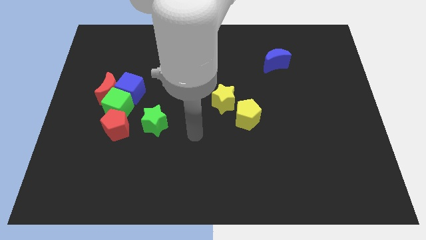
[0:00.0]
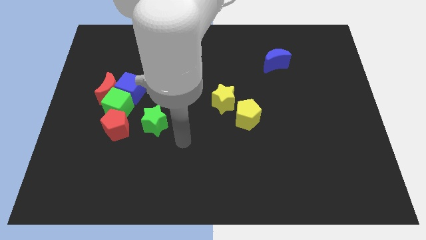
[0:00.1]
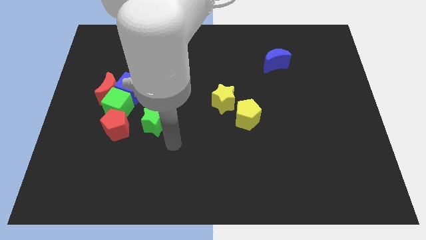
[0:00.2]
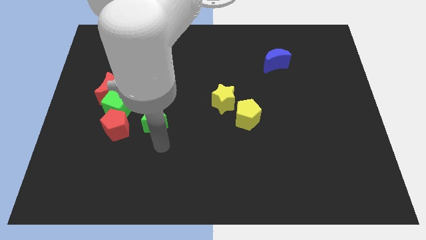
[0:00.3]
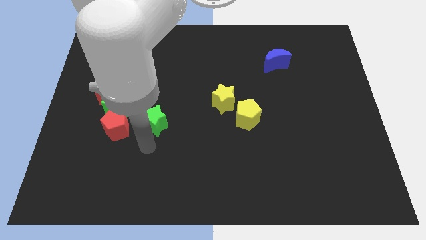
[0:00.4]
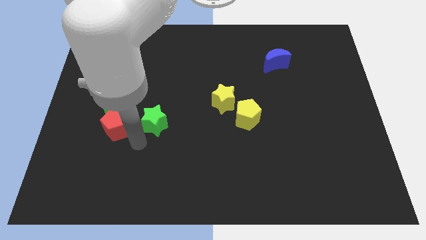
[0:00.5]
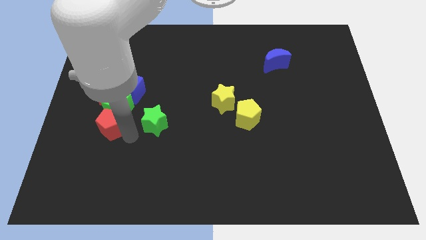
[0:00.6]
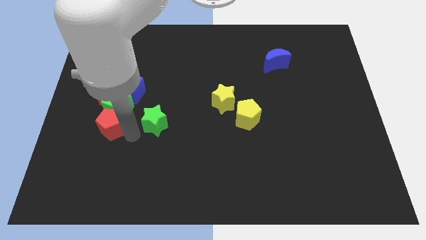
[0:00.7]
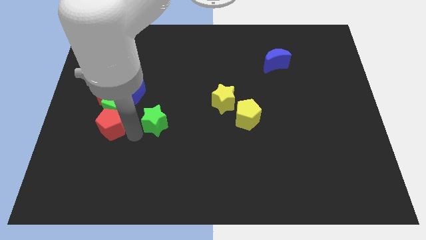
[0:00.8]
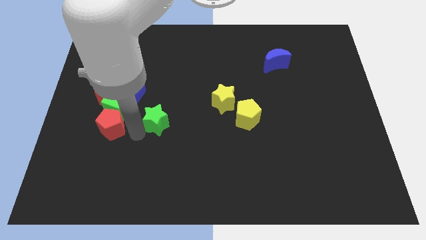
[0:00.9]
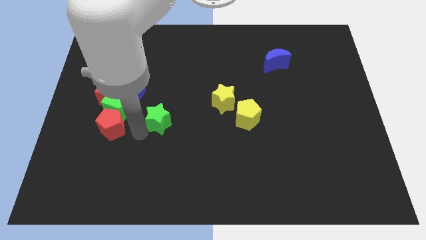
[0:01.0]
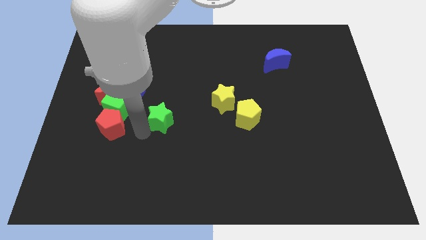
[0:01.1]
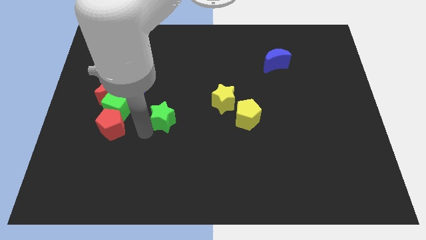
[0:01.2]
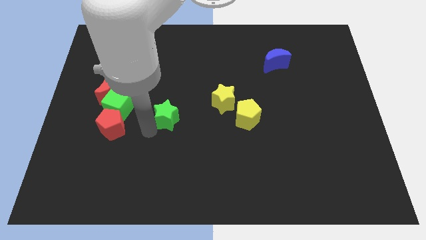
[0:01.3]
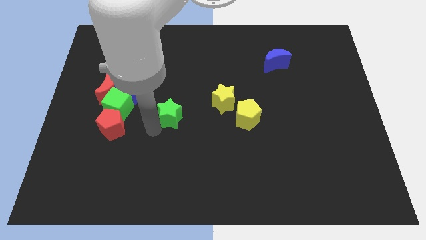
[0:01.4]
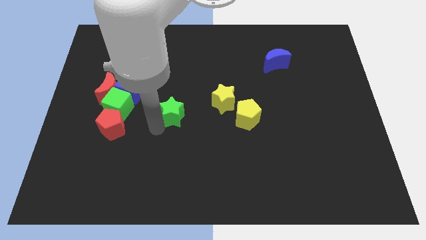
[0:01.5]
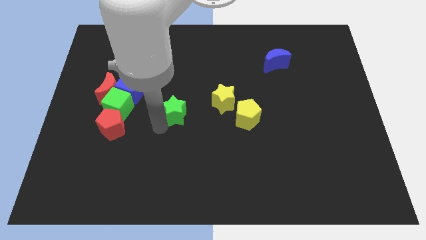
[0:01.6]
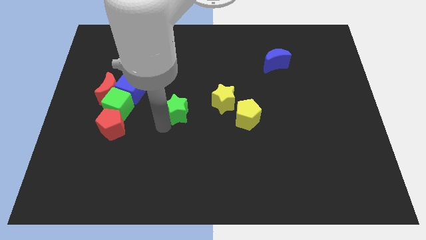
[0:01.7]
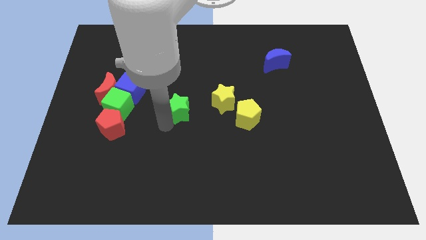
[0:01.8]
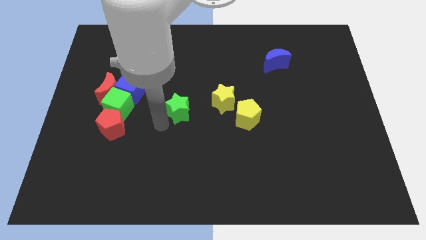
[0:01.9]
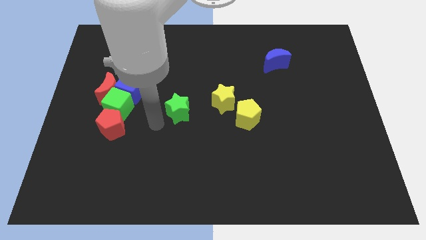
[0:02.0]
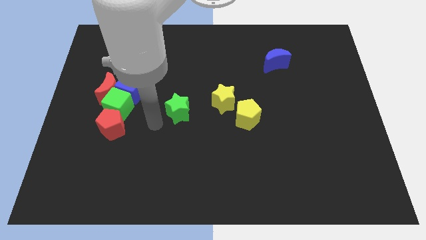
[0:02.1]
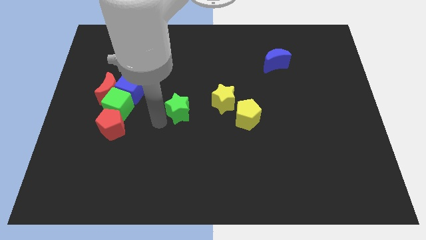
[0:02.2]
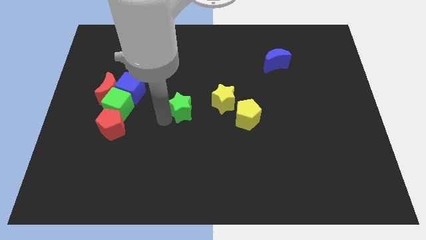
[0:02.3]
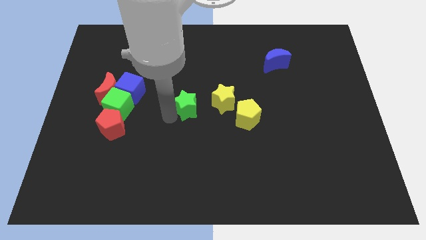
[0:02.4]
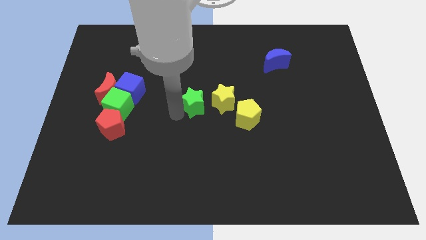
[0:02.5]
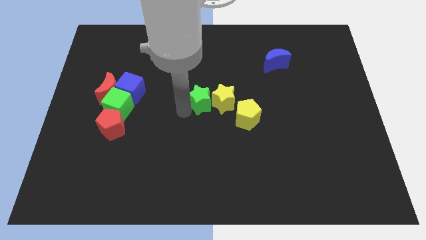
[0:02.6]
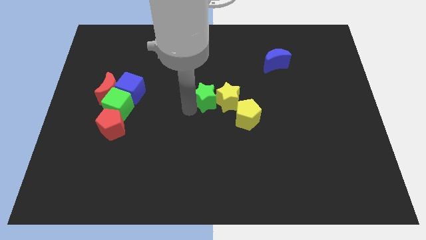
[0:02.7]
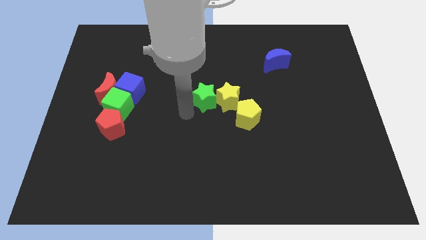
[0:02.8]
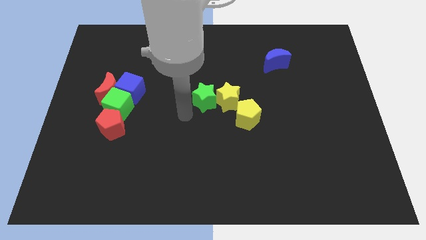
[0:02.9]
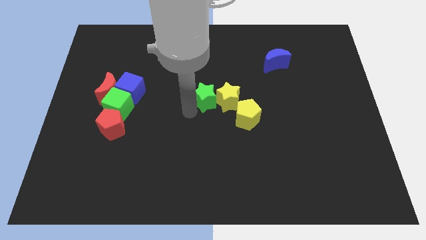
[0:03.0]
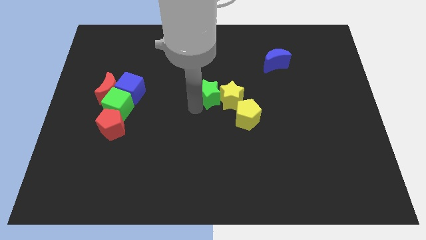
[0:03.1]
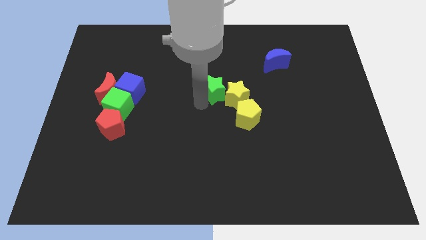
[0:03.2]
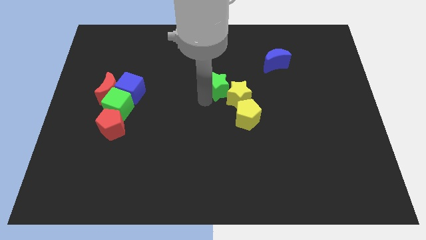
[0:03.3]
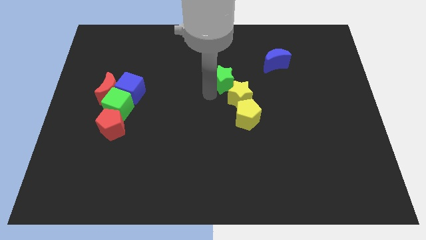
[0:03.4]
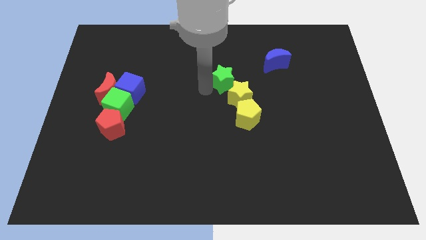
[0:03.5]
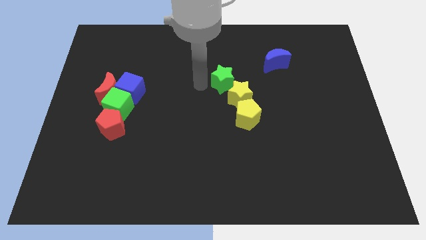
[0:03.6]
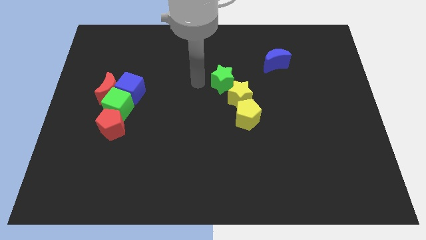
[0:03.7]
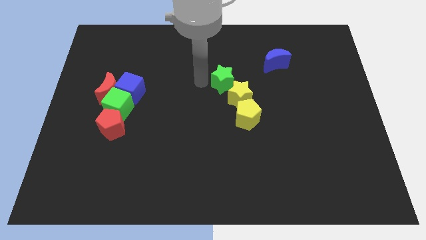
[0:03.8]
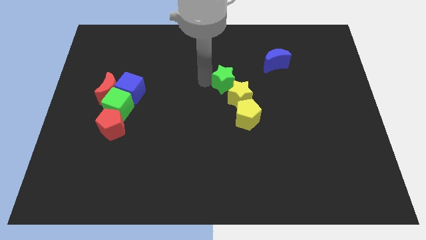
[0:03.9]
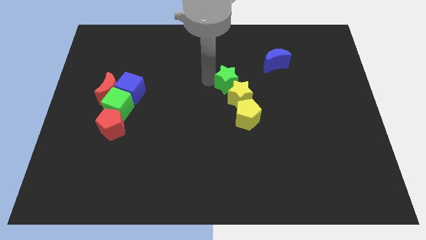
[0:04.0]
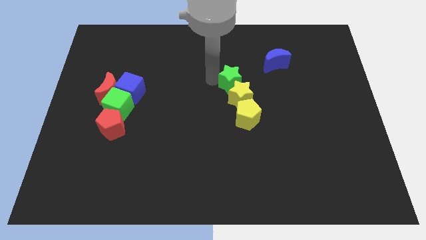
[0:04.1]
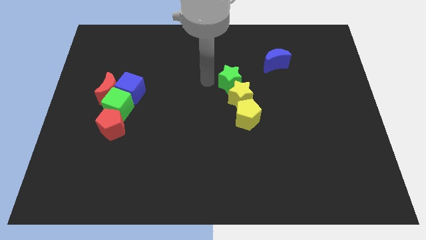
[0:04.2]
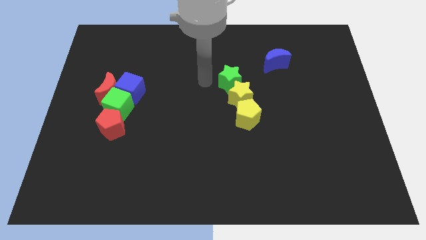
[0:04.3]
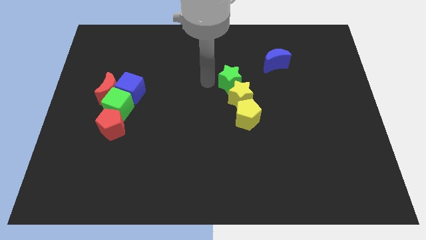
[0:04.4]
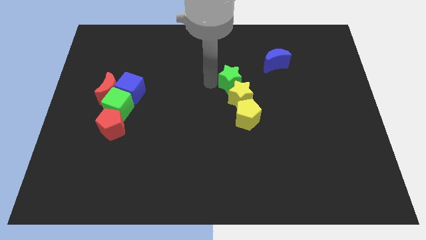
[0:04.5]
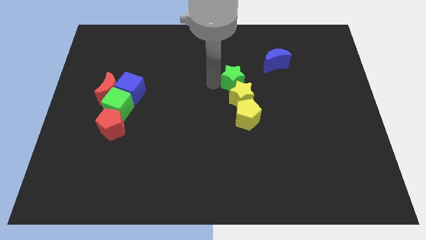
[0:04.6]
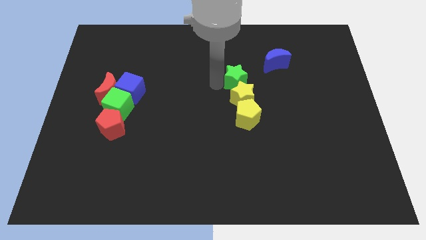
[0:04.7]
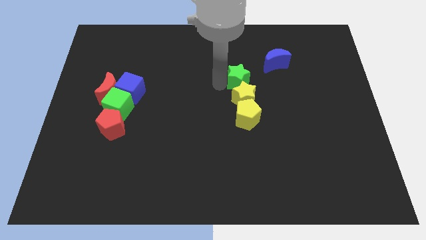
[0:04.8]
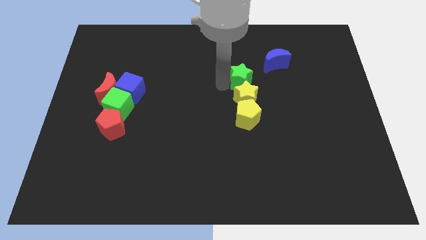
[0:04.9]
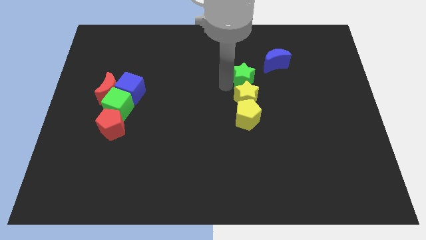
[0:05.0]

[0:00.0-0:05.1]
put the green star diagonally up and to the right of the yellow star

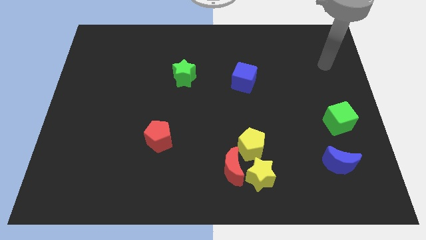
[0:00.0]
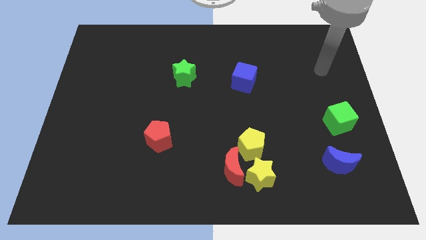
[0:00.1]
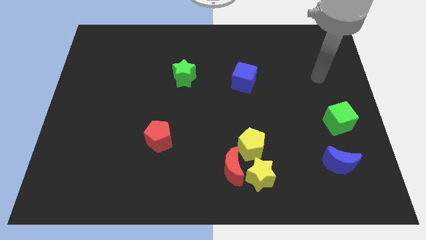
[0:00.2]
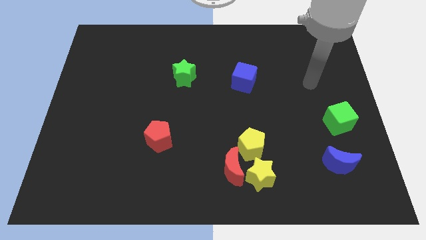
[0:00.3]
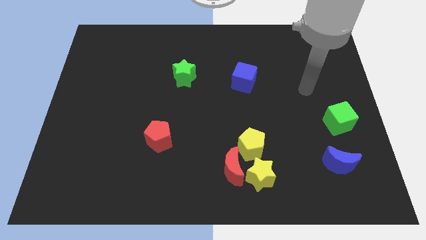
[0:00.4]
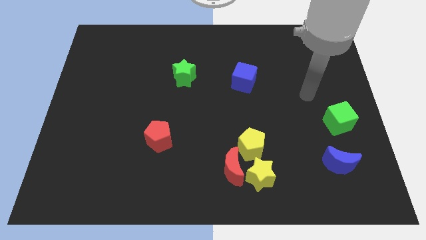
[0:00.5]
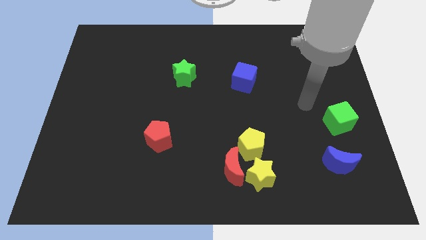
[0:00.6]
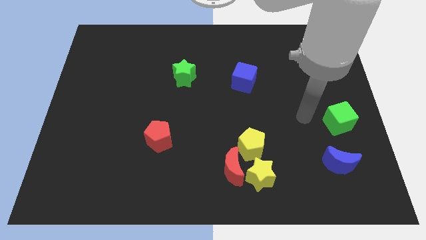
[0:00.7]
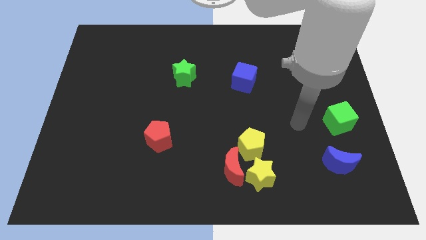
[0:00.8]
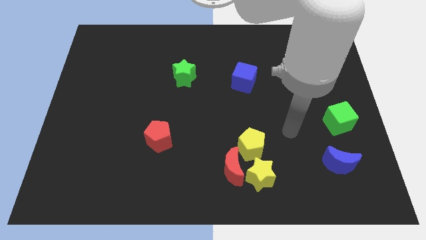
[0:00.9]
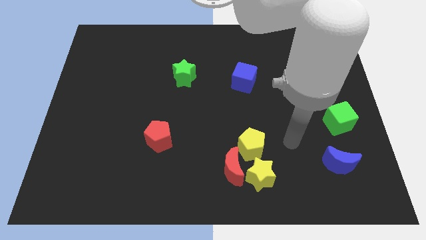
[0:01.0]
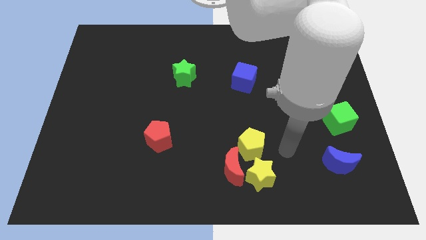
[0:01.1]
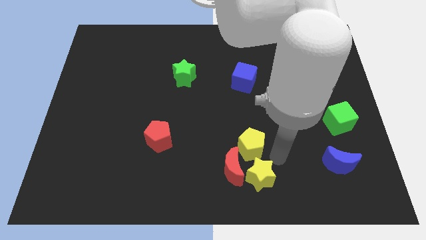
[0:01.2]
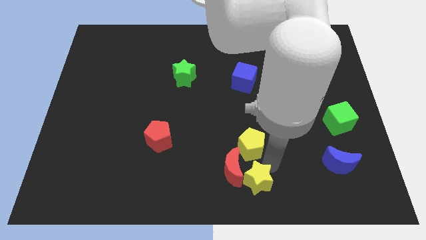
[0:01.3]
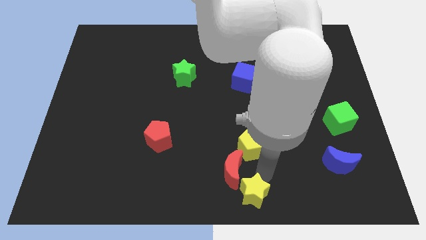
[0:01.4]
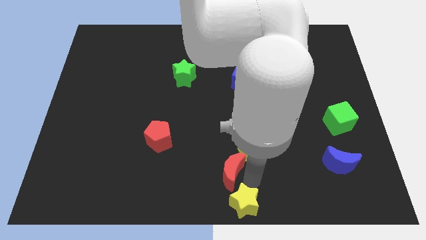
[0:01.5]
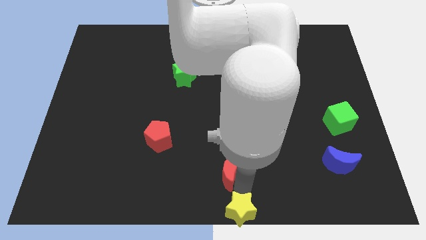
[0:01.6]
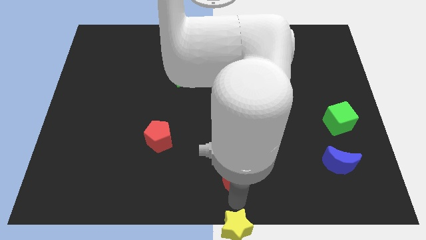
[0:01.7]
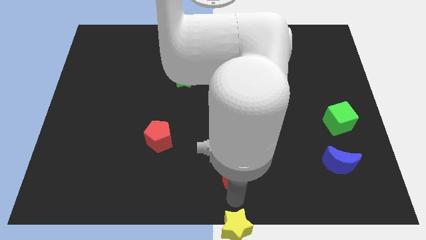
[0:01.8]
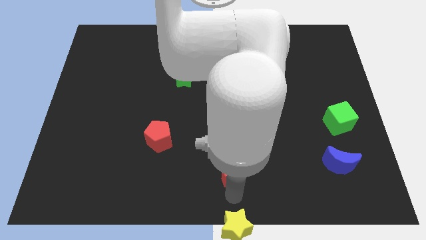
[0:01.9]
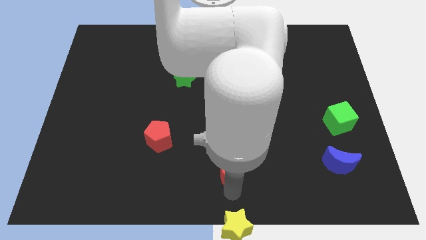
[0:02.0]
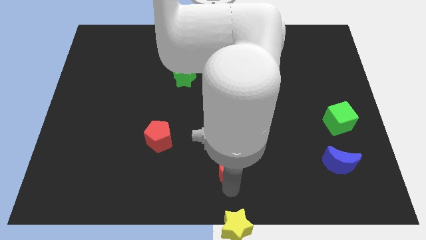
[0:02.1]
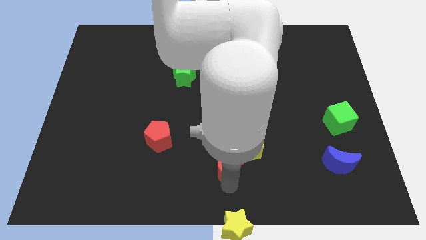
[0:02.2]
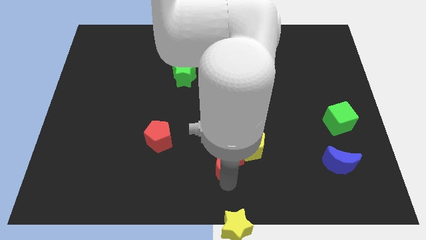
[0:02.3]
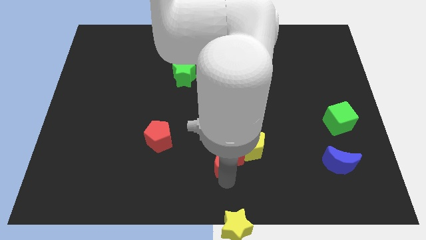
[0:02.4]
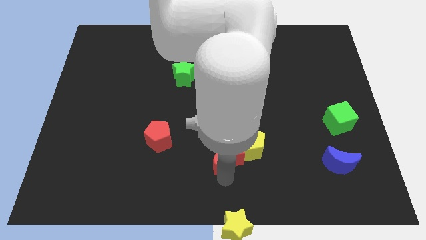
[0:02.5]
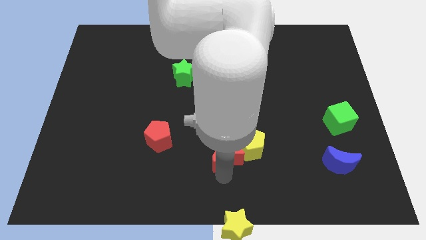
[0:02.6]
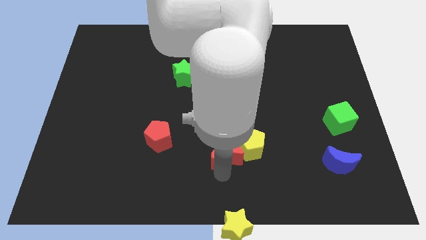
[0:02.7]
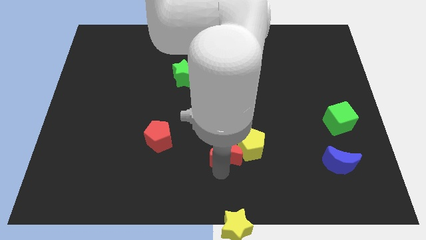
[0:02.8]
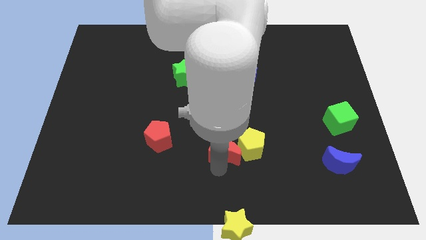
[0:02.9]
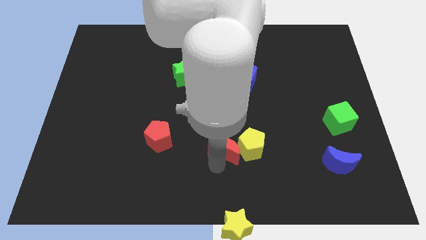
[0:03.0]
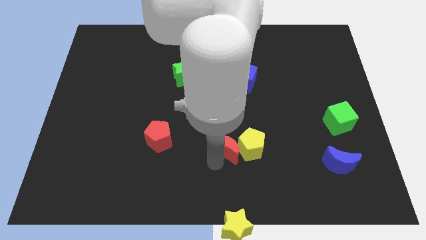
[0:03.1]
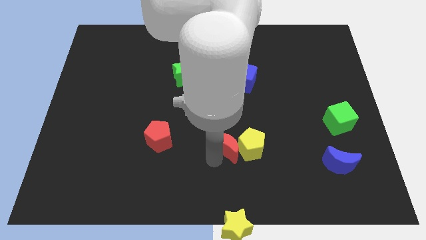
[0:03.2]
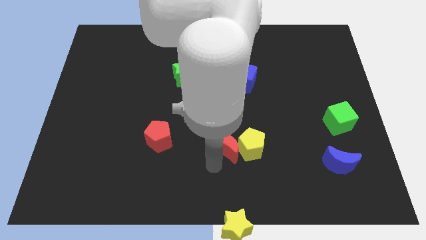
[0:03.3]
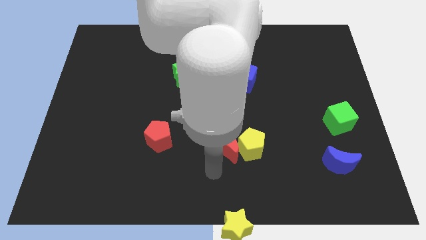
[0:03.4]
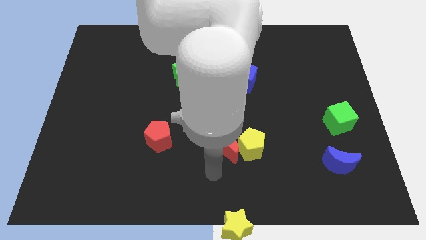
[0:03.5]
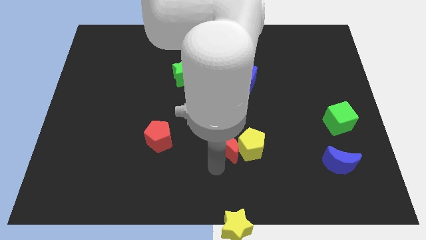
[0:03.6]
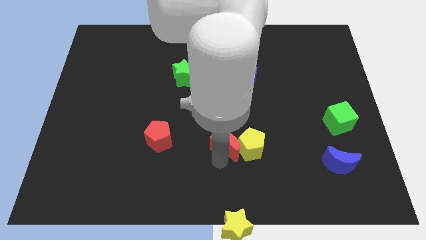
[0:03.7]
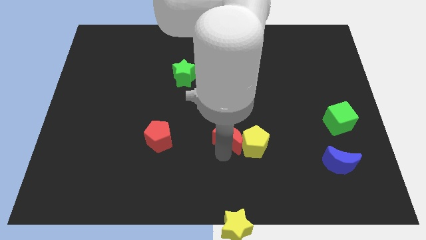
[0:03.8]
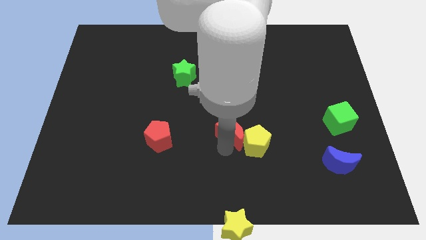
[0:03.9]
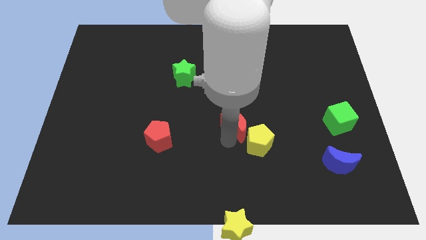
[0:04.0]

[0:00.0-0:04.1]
move the red moon to the top side of the yellow pentagon
